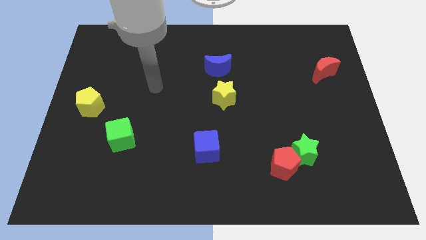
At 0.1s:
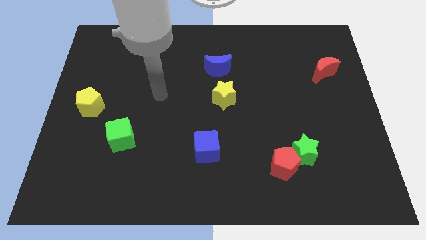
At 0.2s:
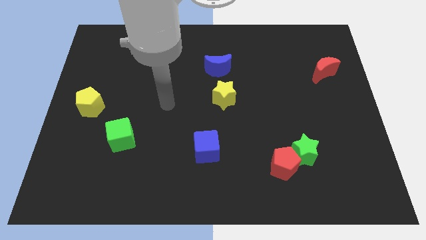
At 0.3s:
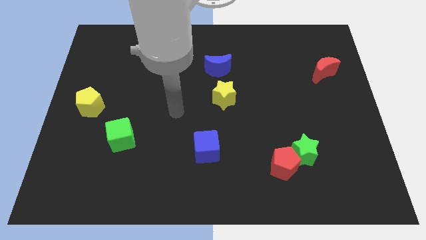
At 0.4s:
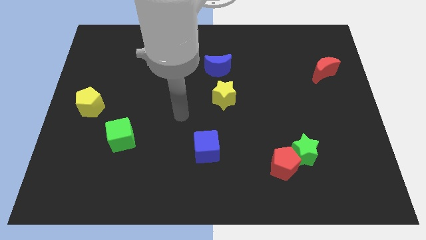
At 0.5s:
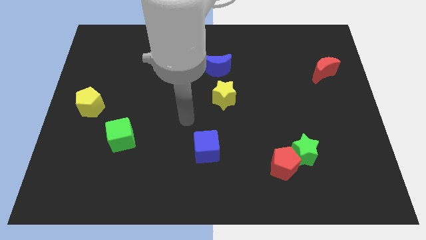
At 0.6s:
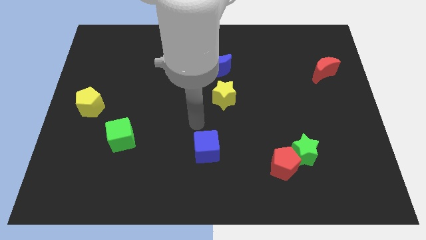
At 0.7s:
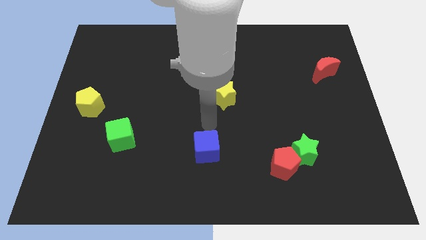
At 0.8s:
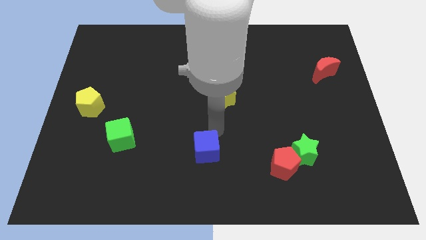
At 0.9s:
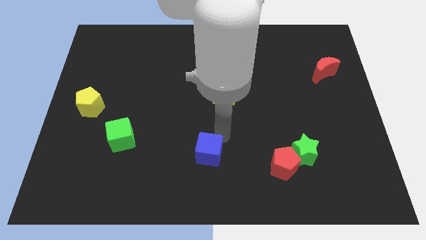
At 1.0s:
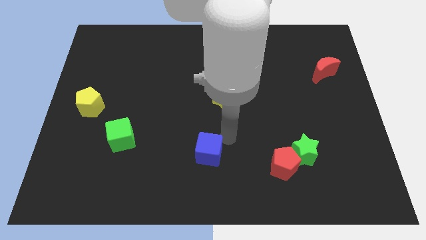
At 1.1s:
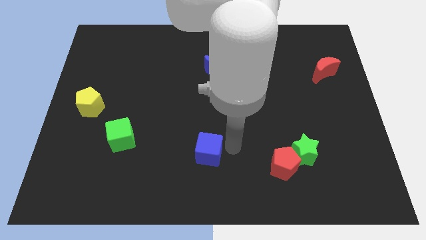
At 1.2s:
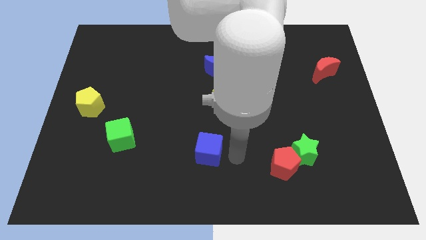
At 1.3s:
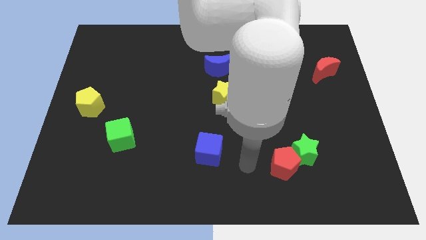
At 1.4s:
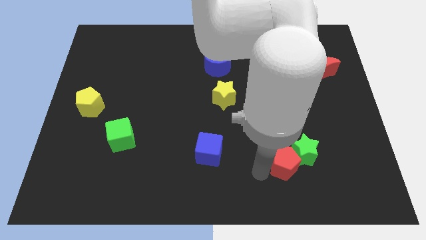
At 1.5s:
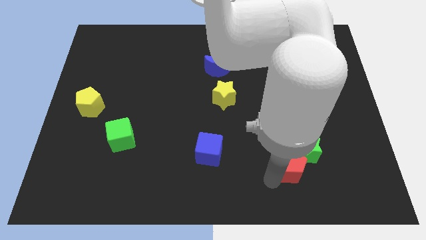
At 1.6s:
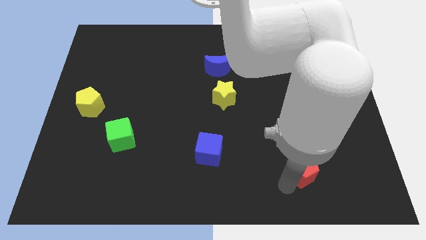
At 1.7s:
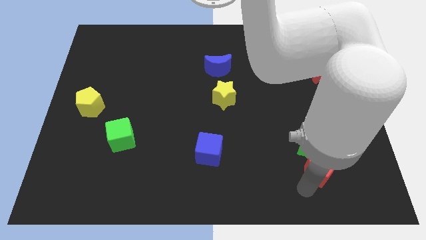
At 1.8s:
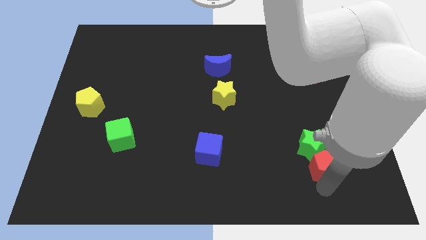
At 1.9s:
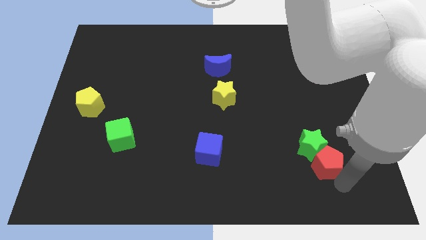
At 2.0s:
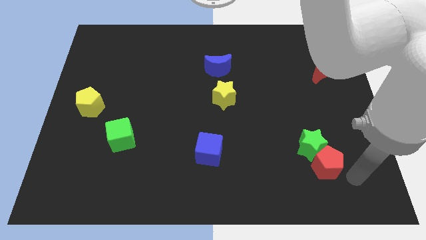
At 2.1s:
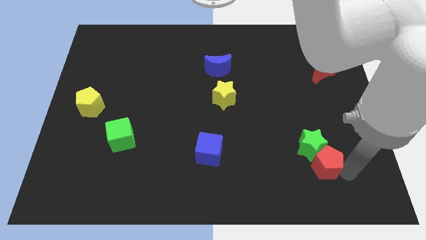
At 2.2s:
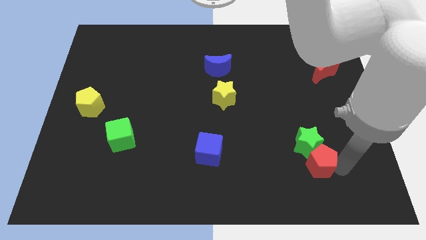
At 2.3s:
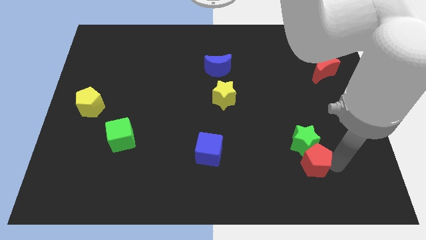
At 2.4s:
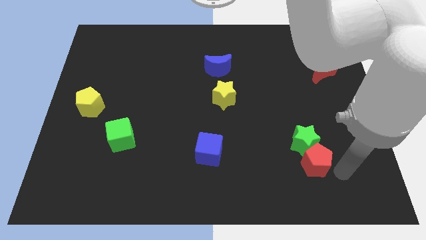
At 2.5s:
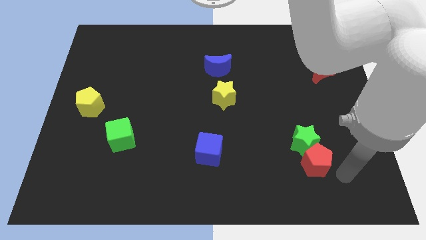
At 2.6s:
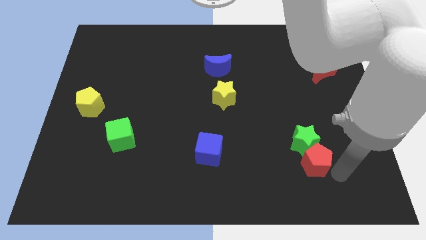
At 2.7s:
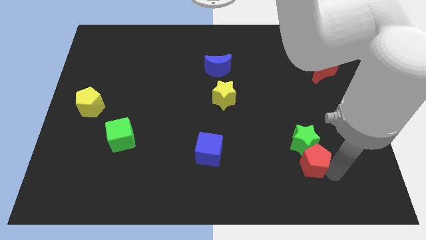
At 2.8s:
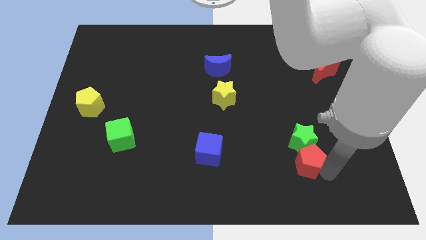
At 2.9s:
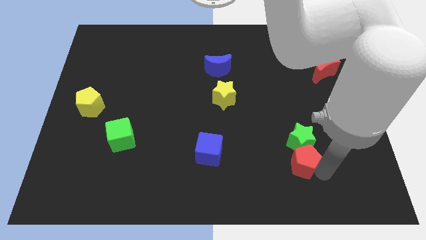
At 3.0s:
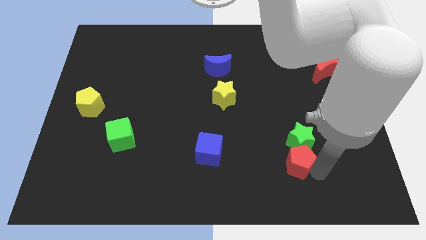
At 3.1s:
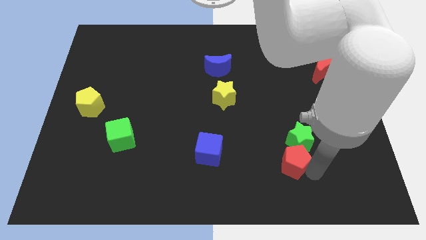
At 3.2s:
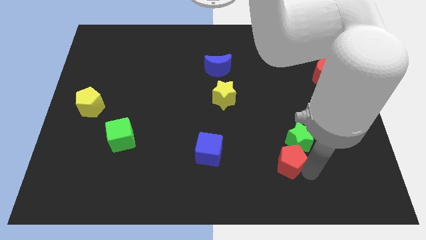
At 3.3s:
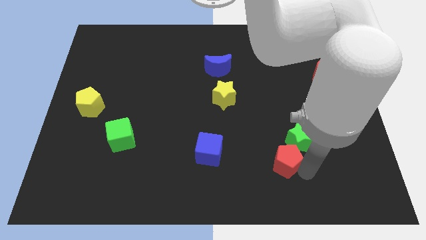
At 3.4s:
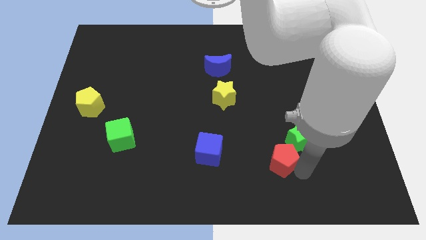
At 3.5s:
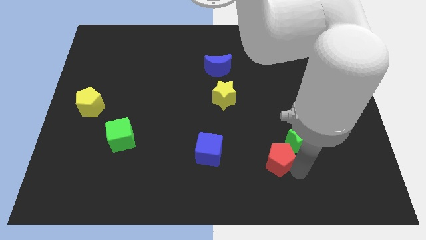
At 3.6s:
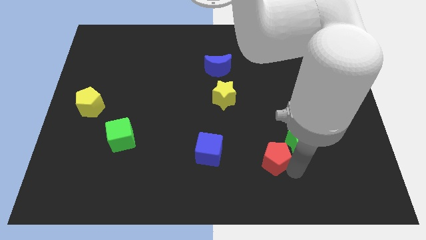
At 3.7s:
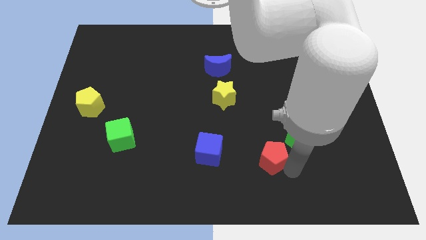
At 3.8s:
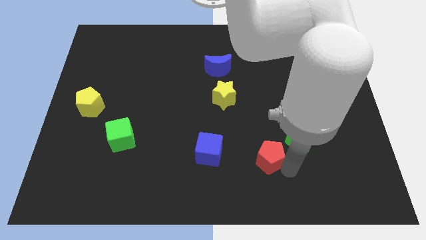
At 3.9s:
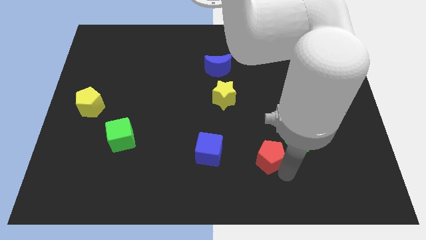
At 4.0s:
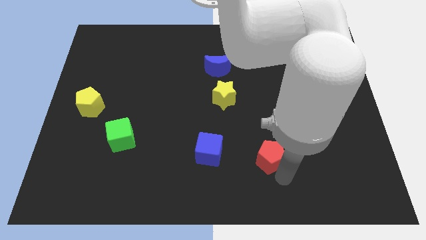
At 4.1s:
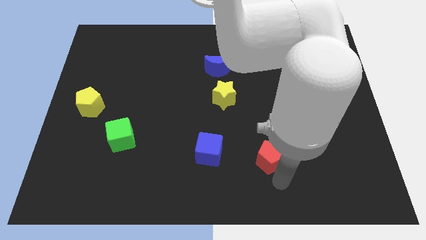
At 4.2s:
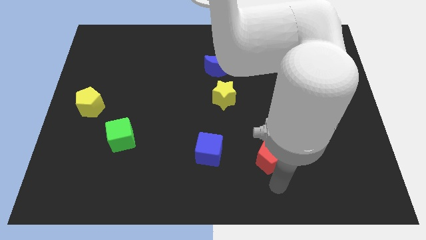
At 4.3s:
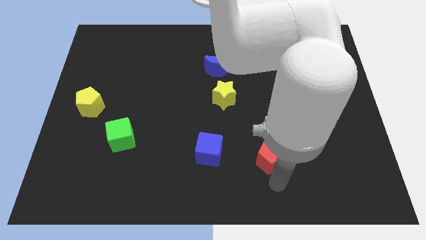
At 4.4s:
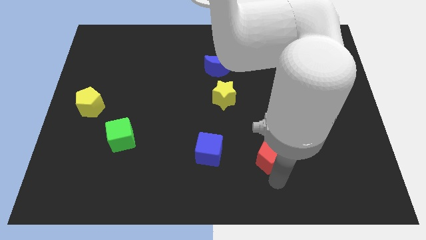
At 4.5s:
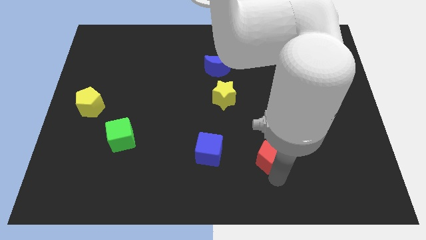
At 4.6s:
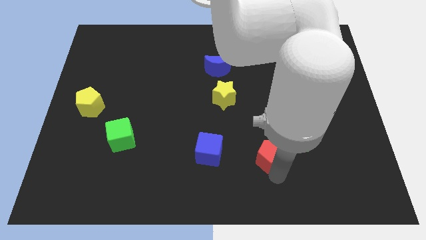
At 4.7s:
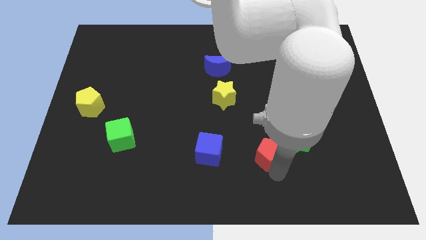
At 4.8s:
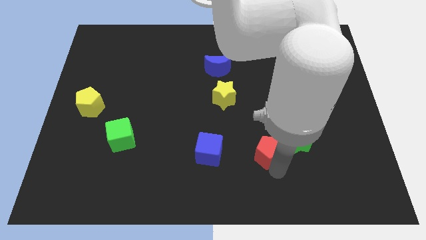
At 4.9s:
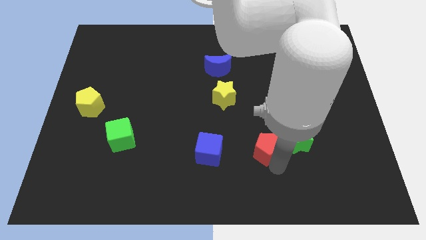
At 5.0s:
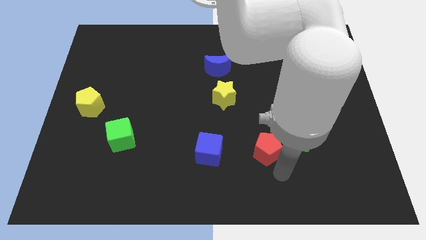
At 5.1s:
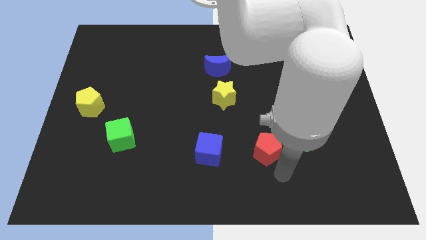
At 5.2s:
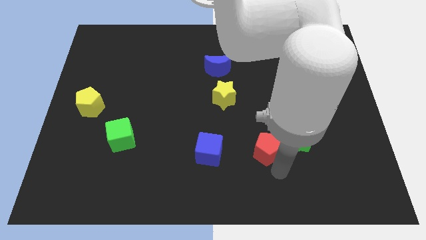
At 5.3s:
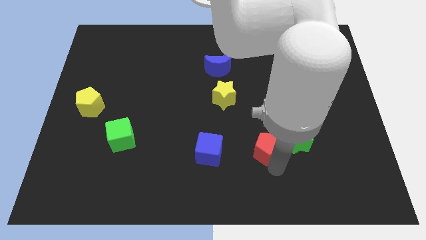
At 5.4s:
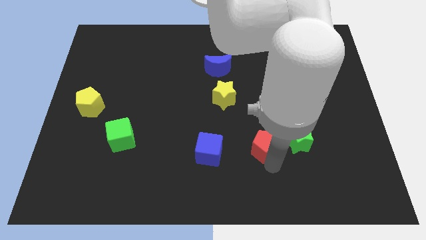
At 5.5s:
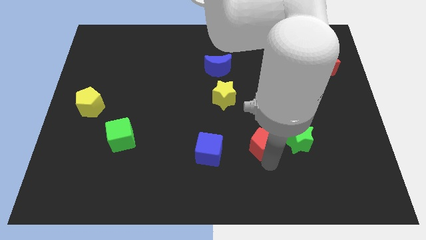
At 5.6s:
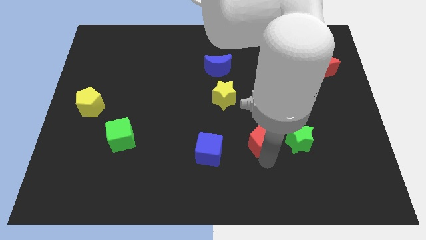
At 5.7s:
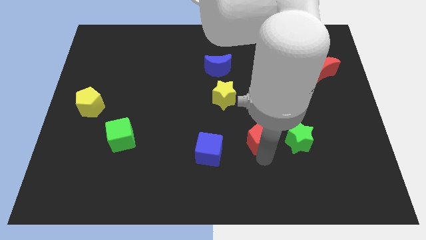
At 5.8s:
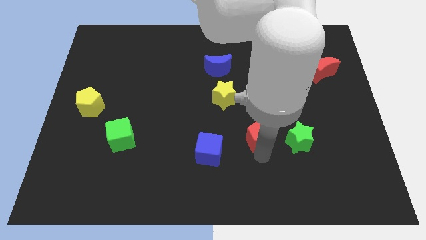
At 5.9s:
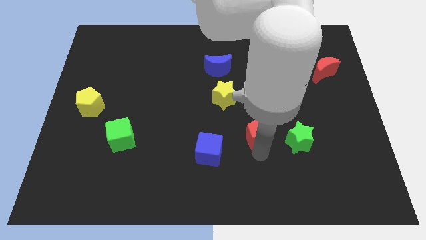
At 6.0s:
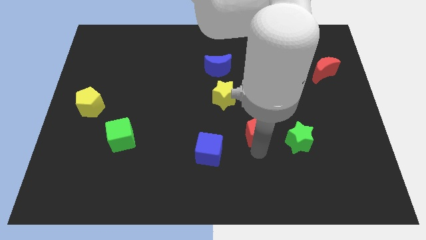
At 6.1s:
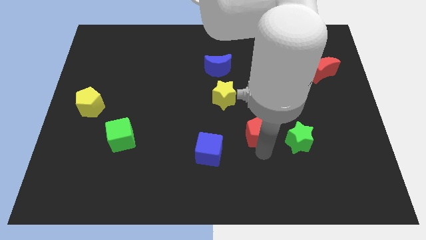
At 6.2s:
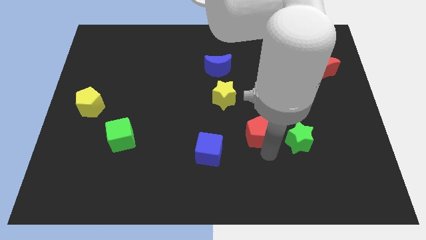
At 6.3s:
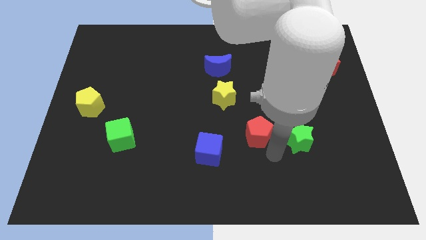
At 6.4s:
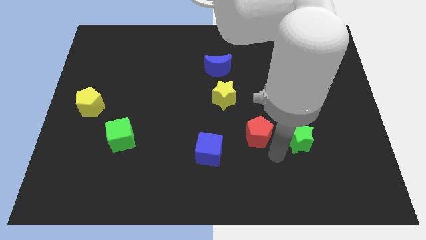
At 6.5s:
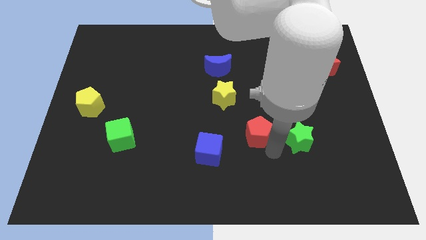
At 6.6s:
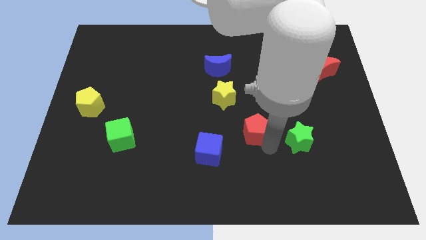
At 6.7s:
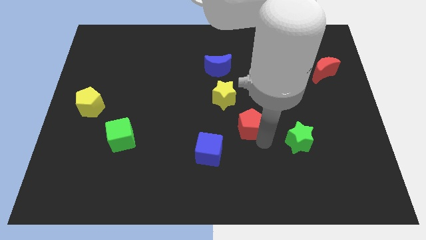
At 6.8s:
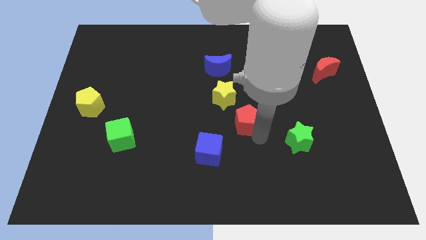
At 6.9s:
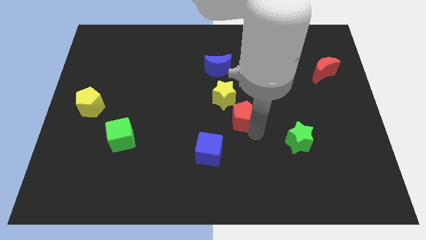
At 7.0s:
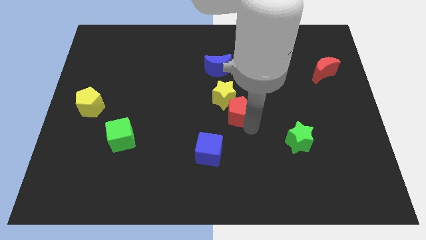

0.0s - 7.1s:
slide the red pentagon towards the yellow star

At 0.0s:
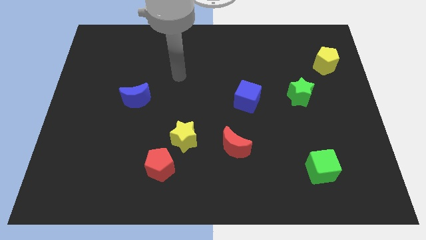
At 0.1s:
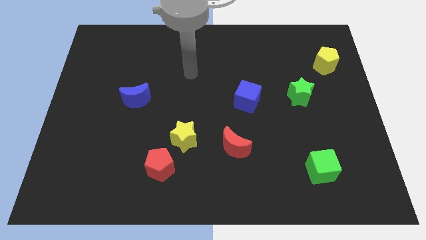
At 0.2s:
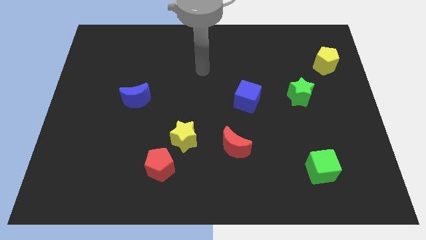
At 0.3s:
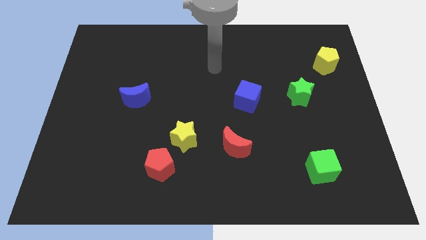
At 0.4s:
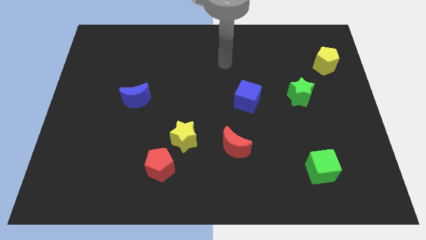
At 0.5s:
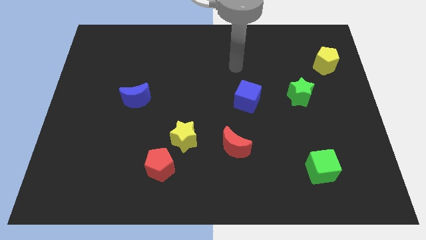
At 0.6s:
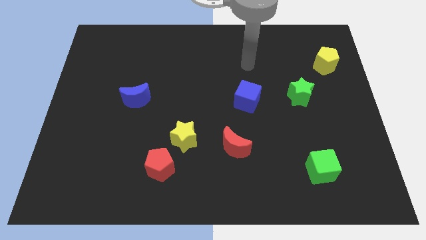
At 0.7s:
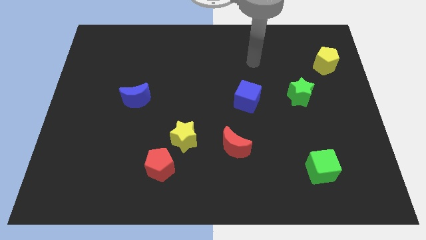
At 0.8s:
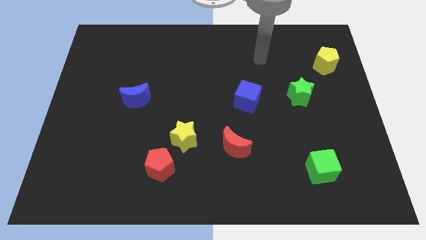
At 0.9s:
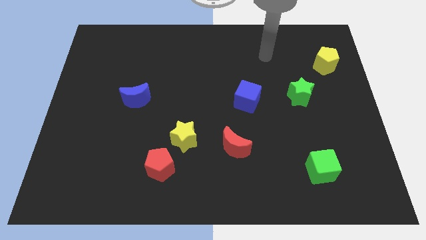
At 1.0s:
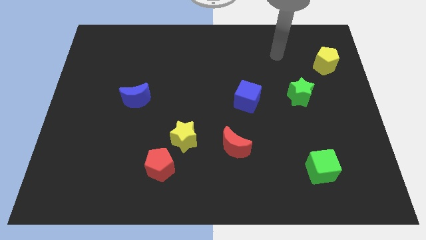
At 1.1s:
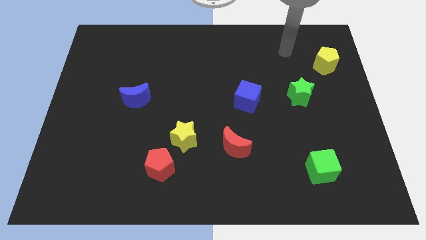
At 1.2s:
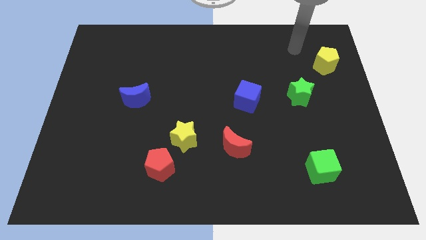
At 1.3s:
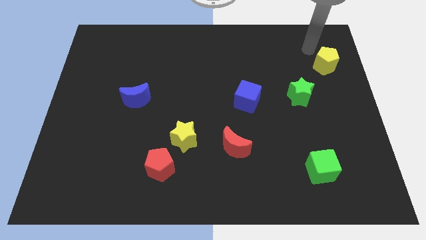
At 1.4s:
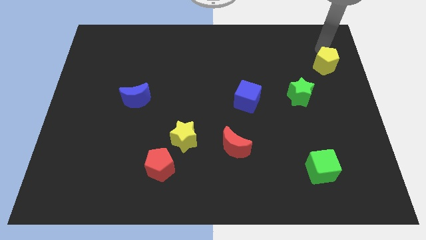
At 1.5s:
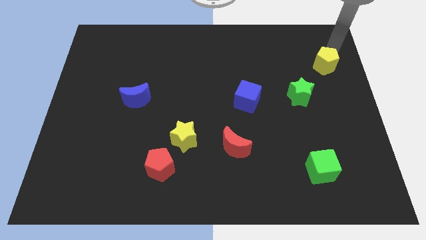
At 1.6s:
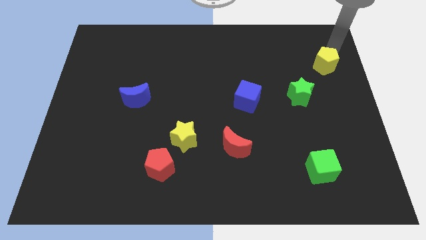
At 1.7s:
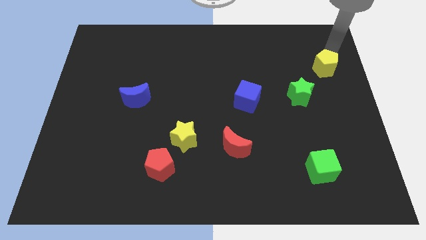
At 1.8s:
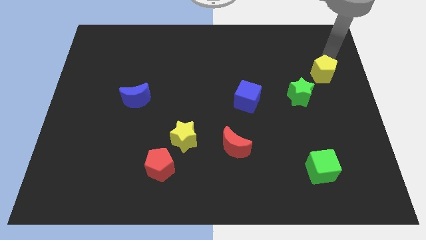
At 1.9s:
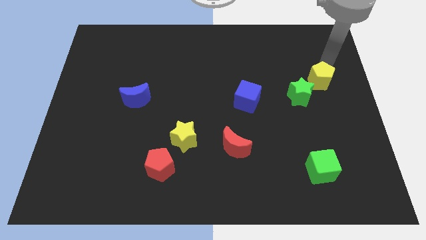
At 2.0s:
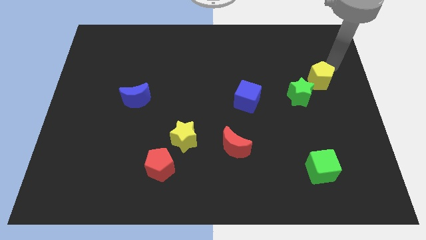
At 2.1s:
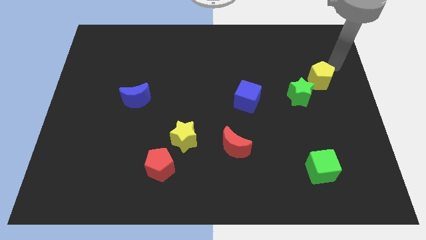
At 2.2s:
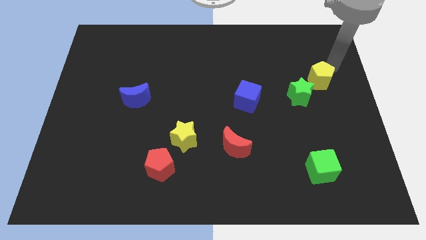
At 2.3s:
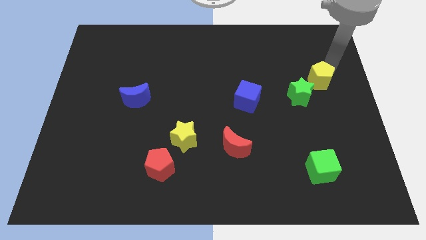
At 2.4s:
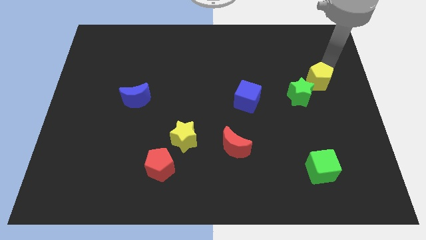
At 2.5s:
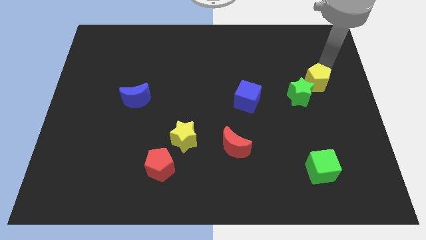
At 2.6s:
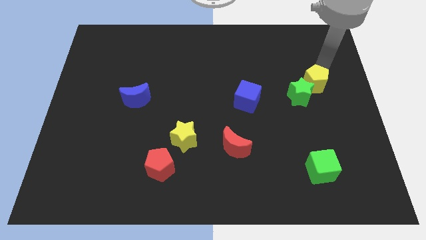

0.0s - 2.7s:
put the yellow pentagon towards the green star
